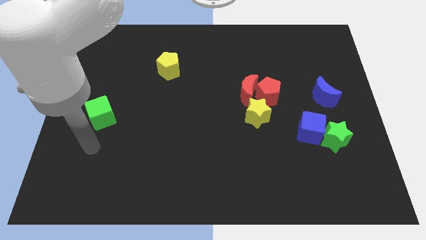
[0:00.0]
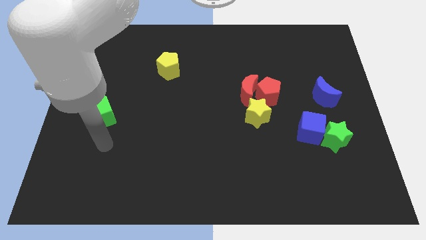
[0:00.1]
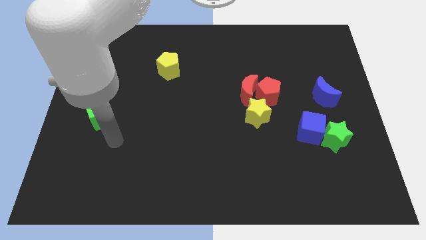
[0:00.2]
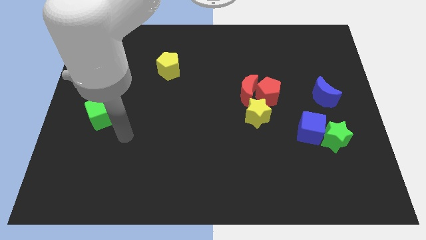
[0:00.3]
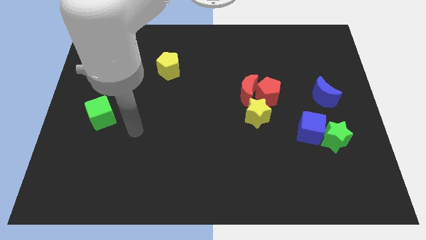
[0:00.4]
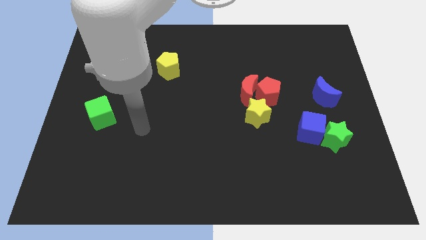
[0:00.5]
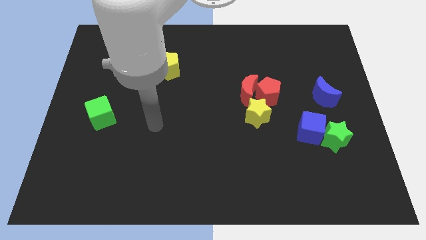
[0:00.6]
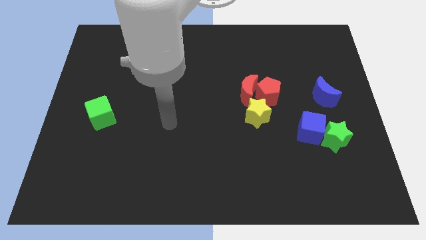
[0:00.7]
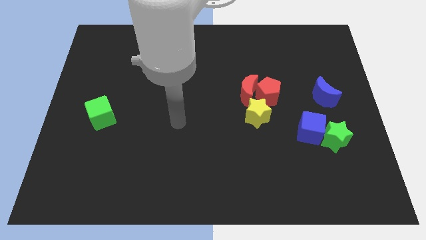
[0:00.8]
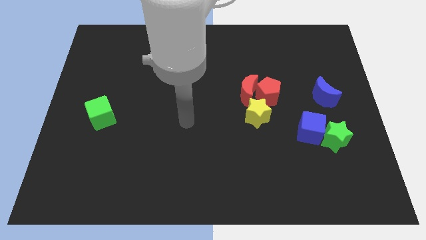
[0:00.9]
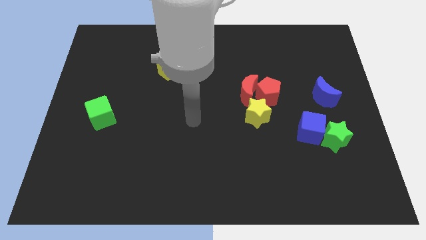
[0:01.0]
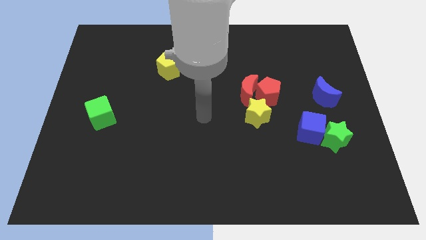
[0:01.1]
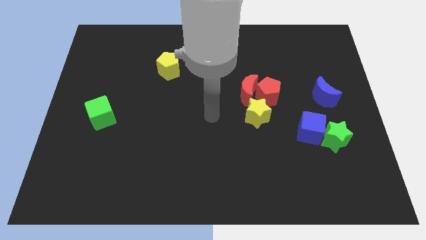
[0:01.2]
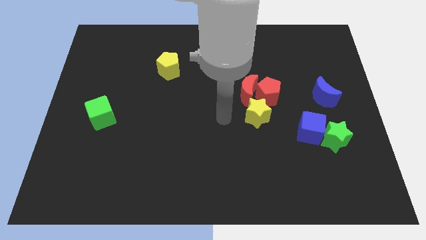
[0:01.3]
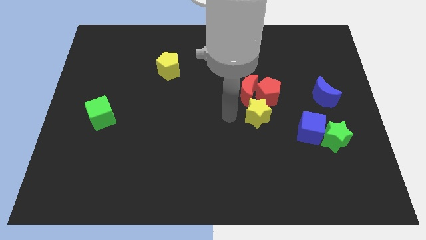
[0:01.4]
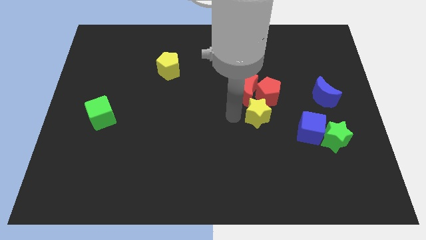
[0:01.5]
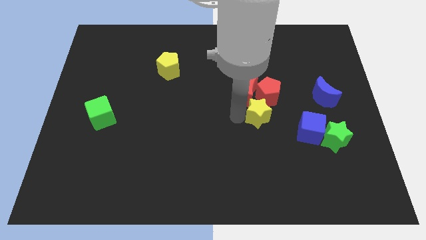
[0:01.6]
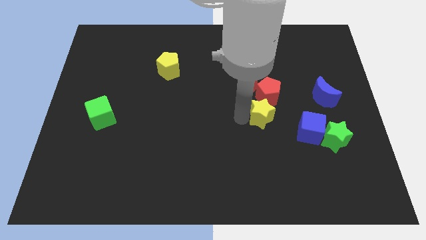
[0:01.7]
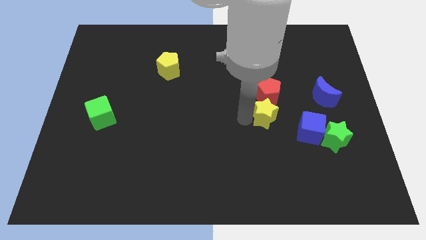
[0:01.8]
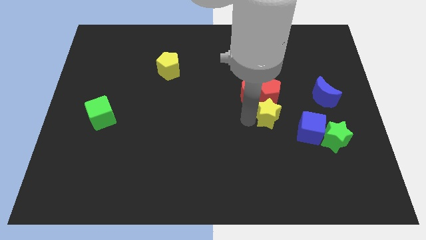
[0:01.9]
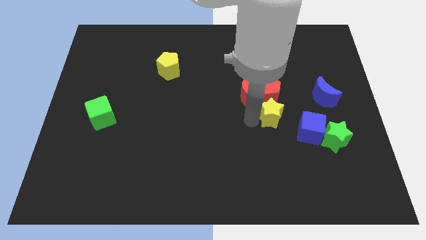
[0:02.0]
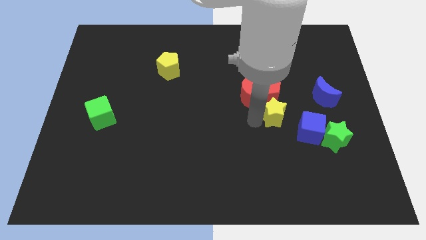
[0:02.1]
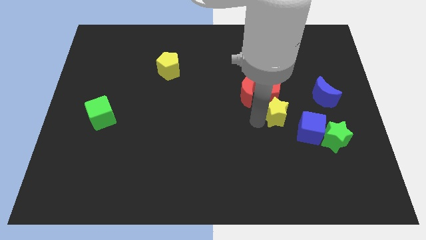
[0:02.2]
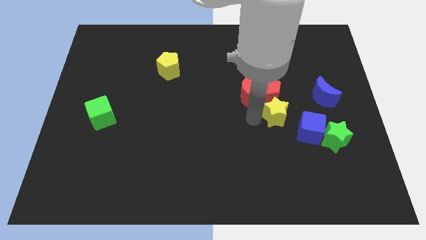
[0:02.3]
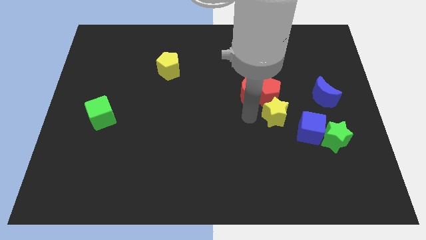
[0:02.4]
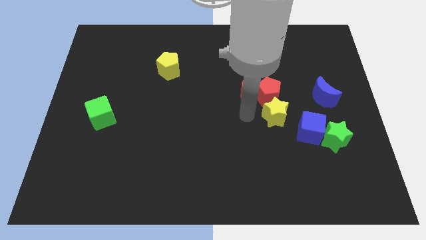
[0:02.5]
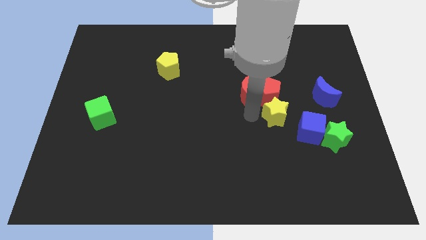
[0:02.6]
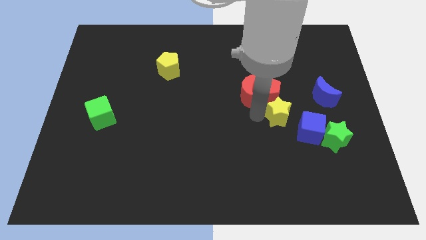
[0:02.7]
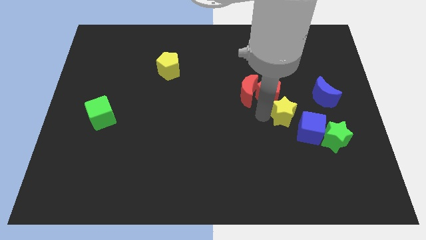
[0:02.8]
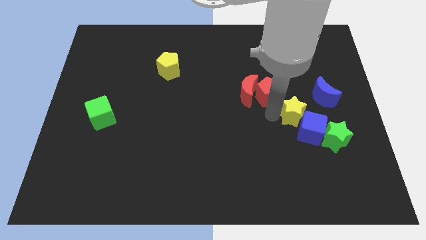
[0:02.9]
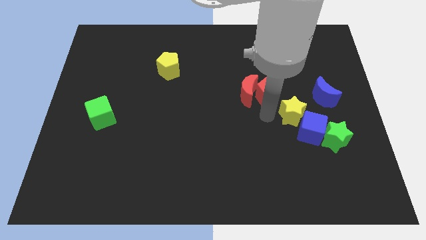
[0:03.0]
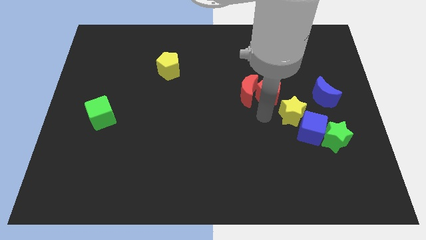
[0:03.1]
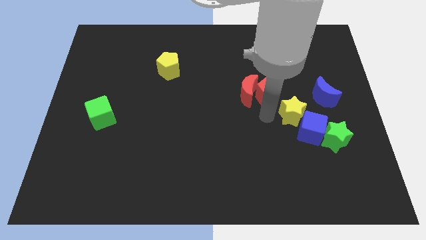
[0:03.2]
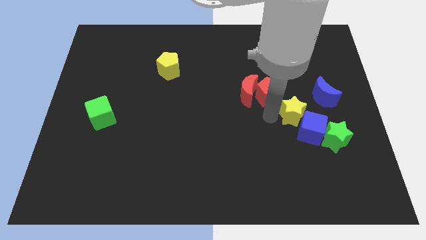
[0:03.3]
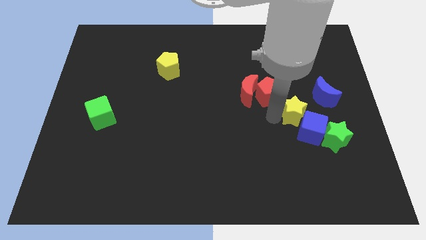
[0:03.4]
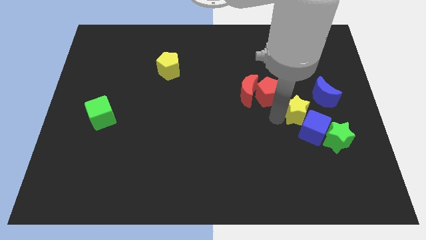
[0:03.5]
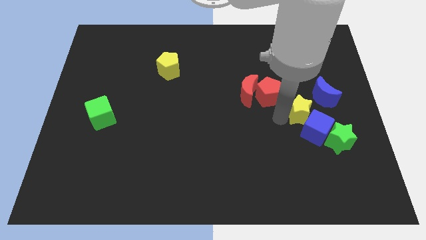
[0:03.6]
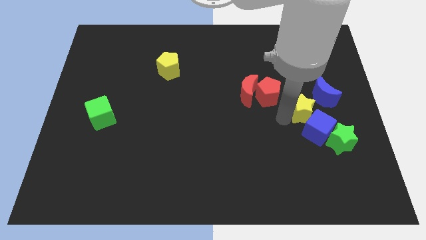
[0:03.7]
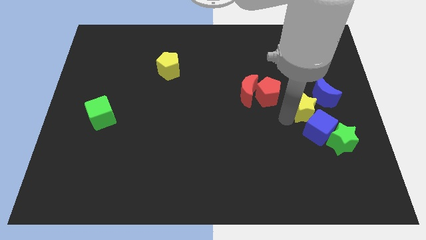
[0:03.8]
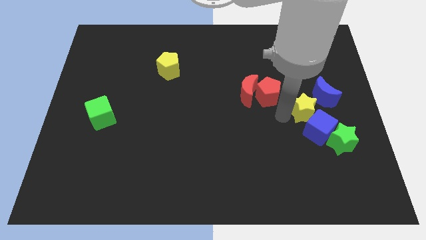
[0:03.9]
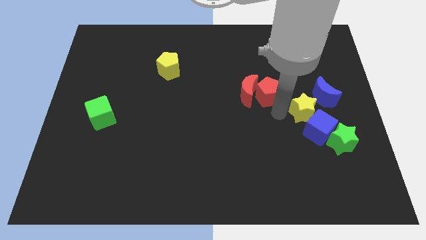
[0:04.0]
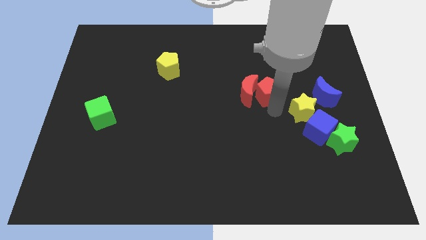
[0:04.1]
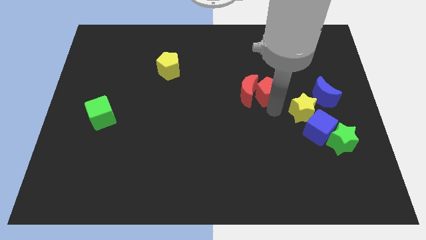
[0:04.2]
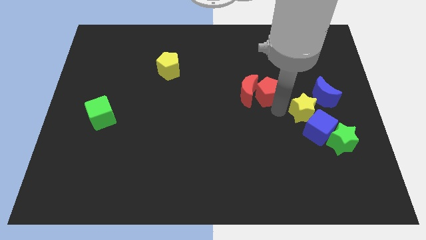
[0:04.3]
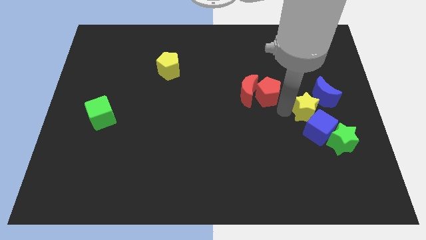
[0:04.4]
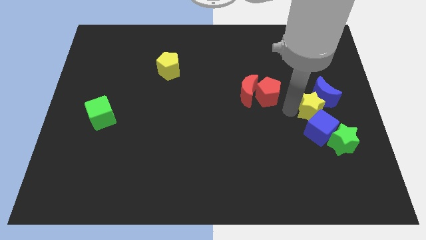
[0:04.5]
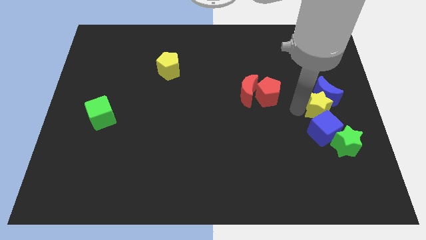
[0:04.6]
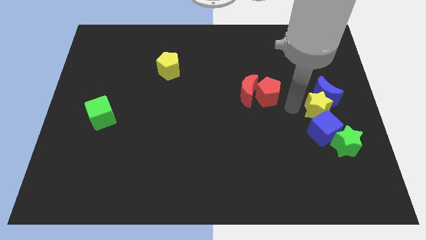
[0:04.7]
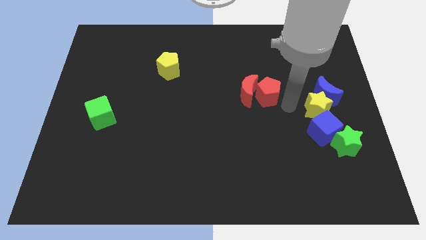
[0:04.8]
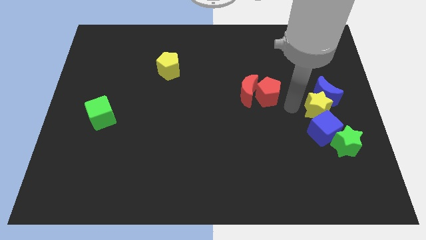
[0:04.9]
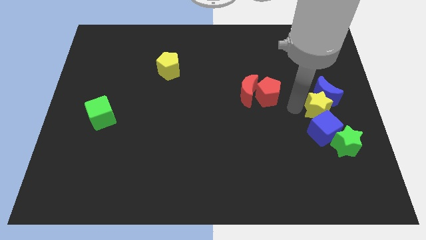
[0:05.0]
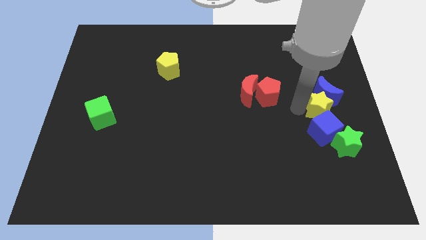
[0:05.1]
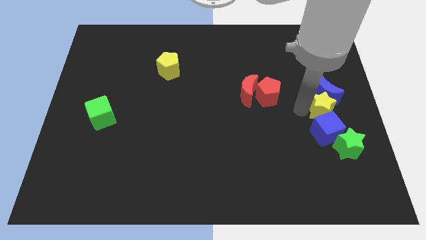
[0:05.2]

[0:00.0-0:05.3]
slide the yellow star to the center right

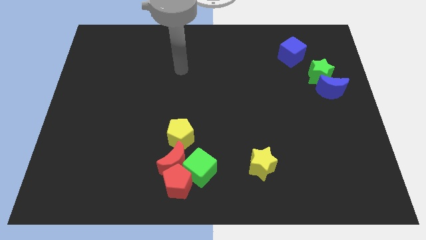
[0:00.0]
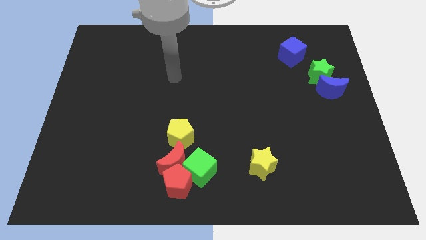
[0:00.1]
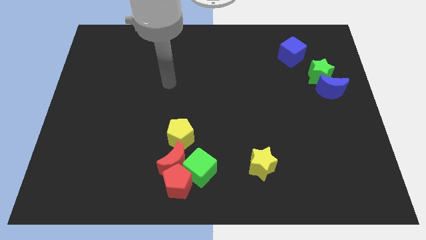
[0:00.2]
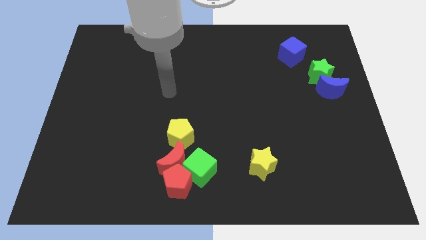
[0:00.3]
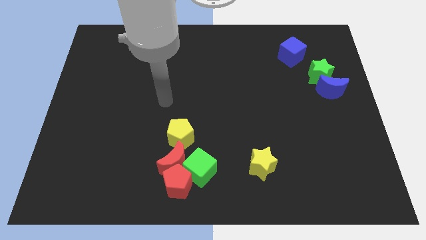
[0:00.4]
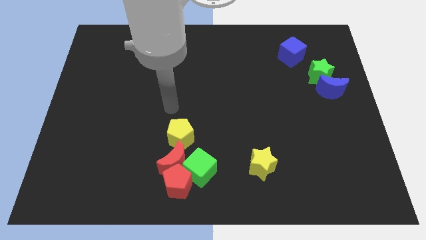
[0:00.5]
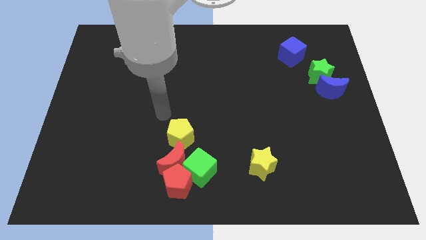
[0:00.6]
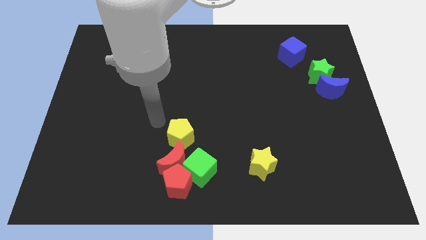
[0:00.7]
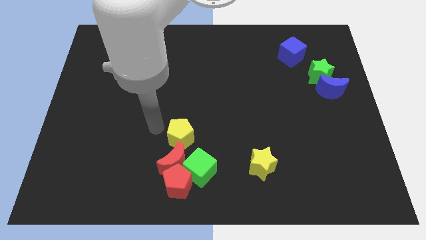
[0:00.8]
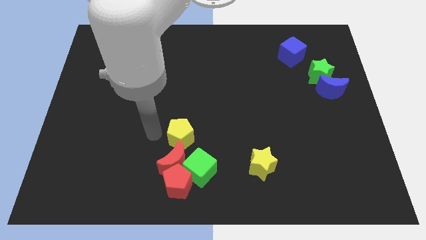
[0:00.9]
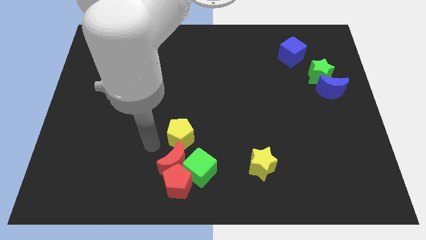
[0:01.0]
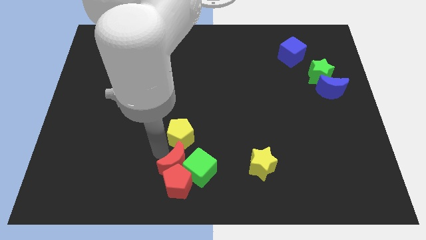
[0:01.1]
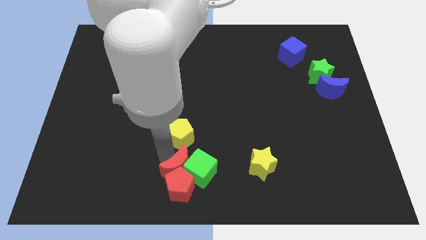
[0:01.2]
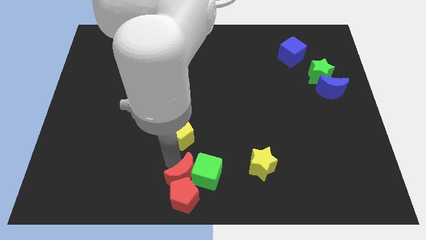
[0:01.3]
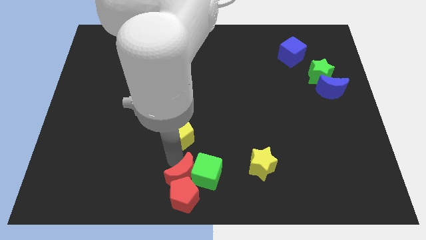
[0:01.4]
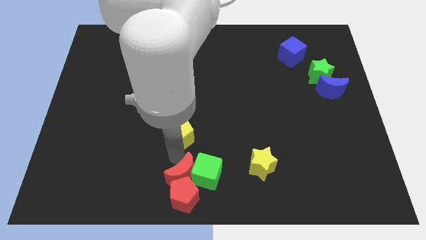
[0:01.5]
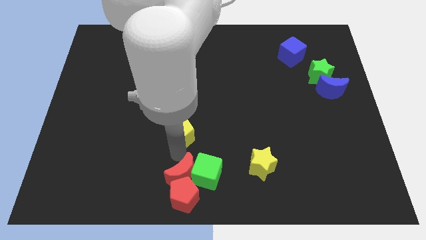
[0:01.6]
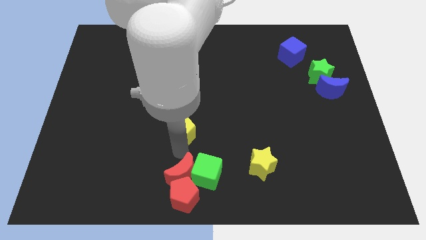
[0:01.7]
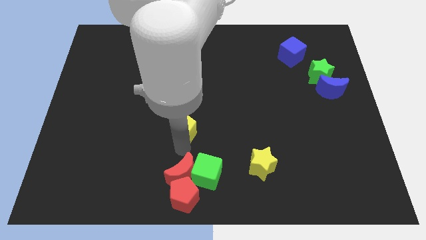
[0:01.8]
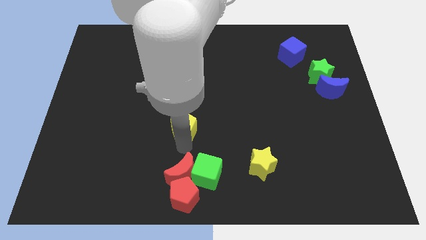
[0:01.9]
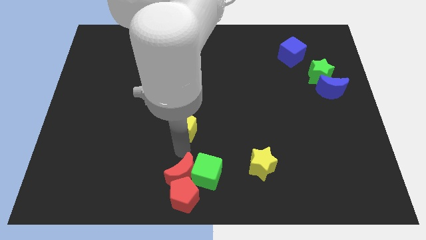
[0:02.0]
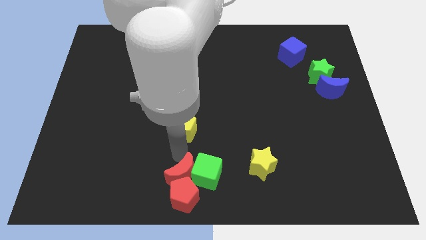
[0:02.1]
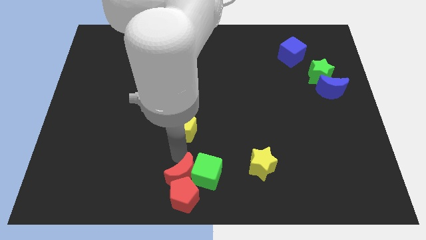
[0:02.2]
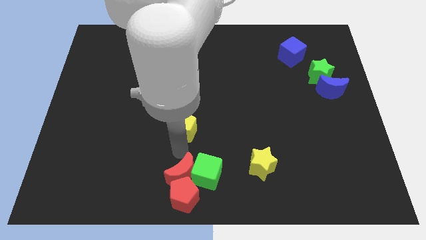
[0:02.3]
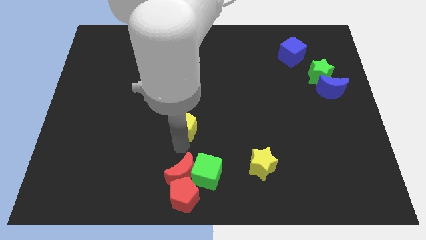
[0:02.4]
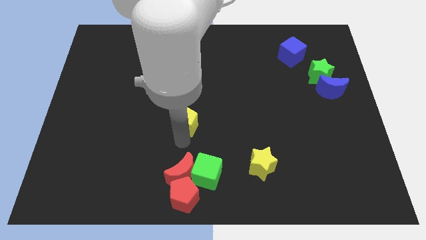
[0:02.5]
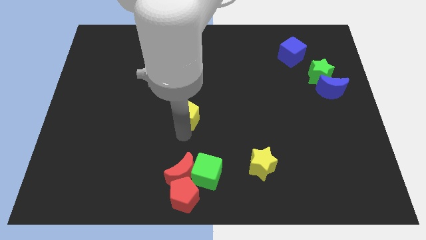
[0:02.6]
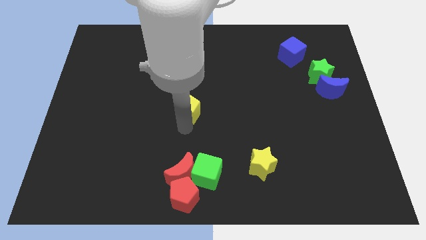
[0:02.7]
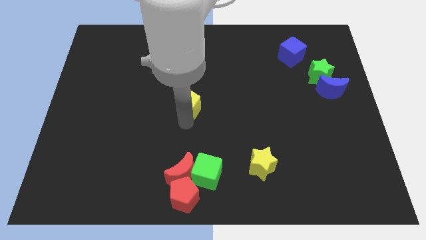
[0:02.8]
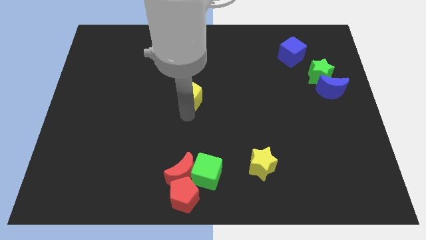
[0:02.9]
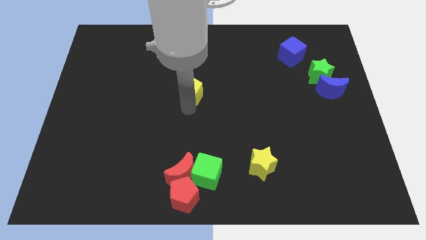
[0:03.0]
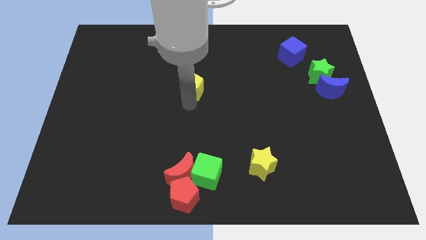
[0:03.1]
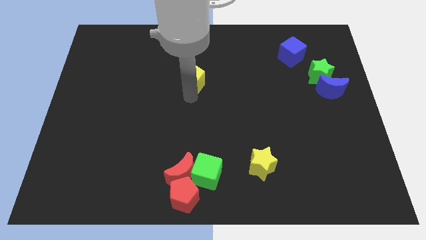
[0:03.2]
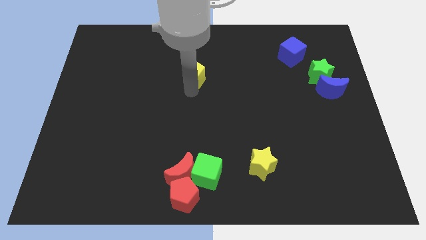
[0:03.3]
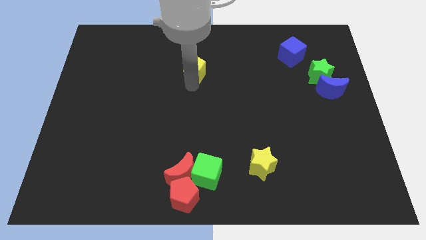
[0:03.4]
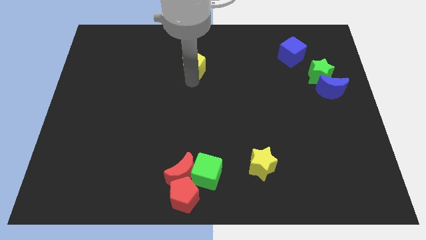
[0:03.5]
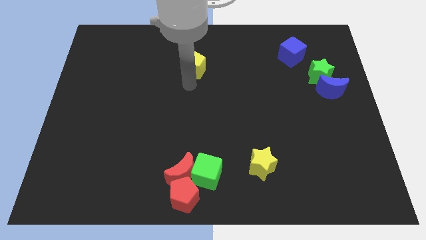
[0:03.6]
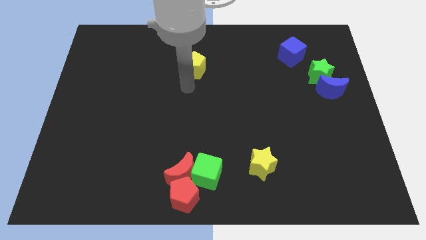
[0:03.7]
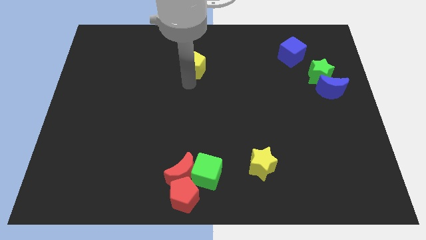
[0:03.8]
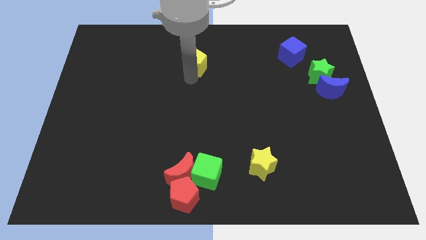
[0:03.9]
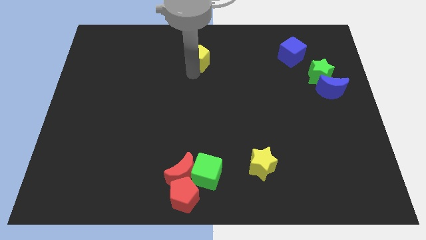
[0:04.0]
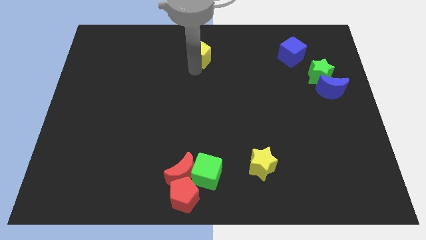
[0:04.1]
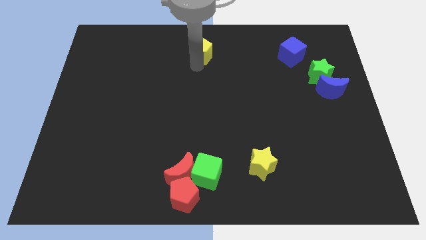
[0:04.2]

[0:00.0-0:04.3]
slide the yellow pentagon to the top side
